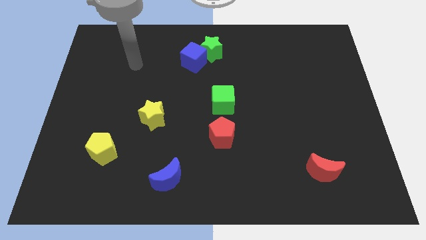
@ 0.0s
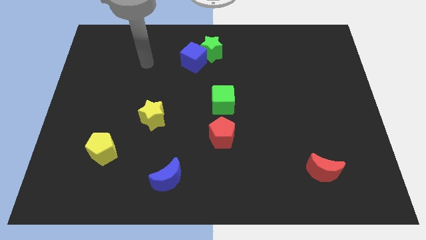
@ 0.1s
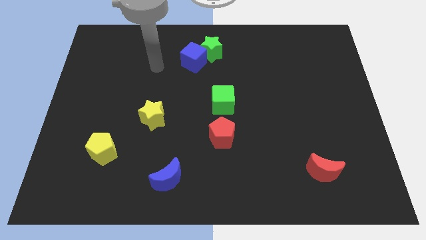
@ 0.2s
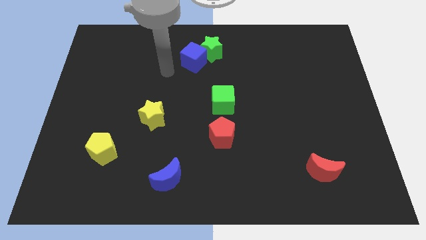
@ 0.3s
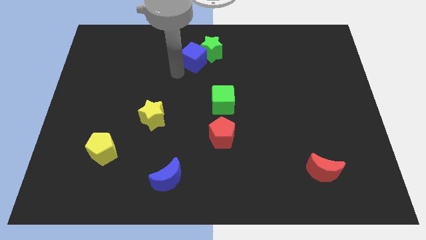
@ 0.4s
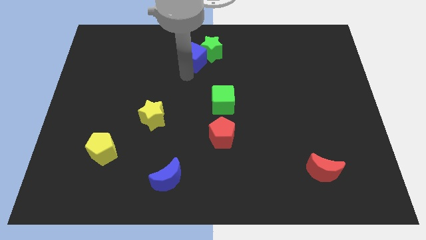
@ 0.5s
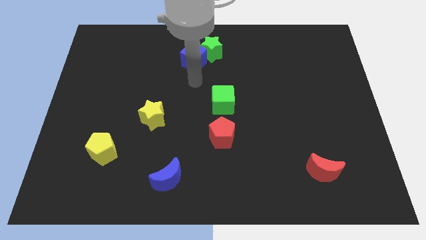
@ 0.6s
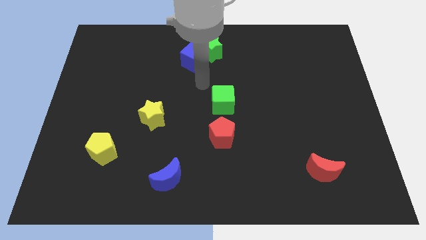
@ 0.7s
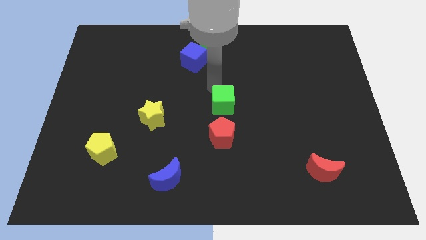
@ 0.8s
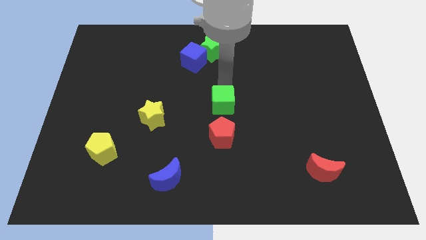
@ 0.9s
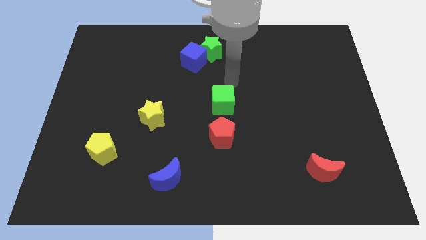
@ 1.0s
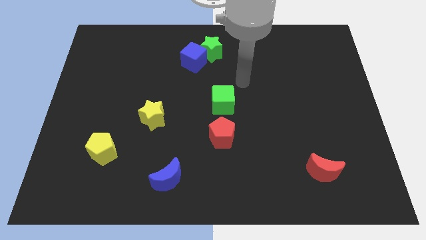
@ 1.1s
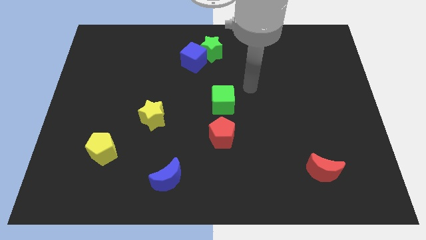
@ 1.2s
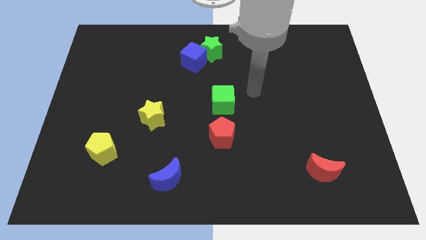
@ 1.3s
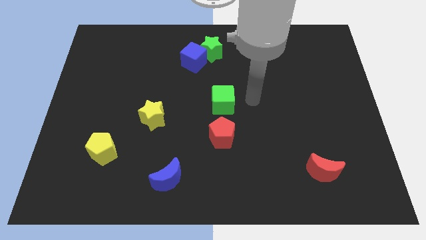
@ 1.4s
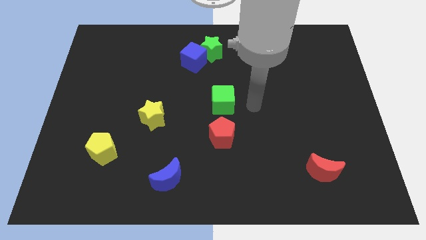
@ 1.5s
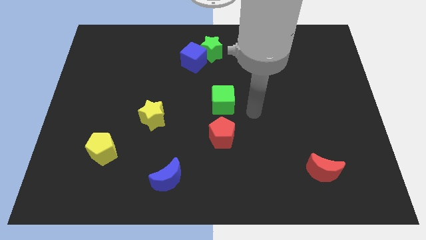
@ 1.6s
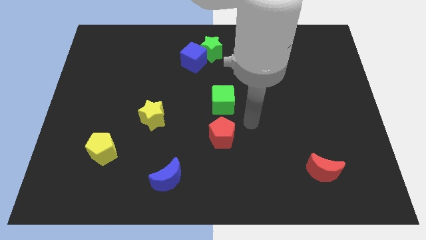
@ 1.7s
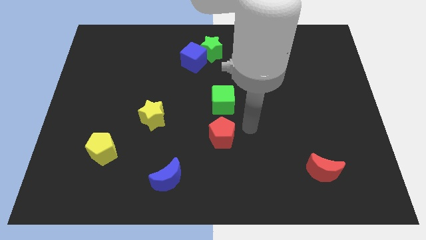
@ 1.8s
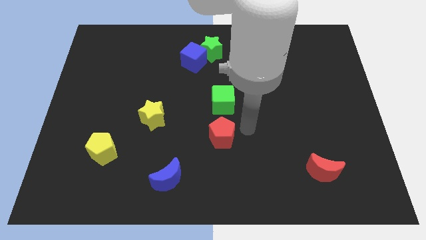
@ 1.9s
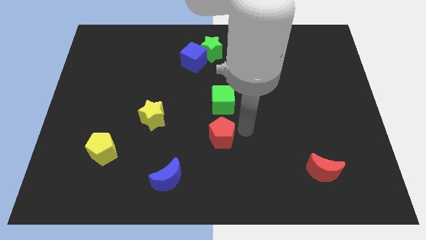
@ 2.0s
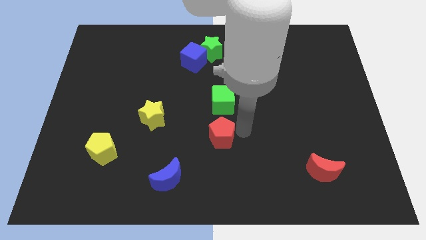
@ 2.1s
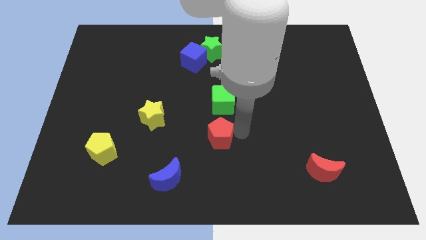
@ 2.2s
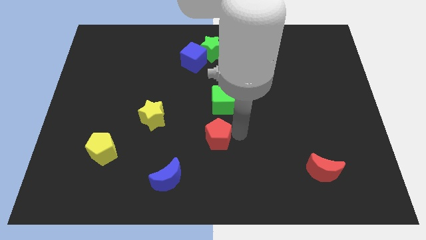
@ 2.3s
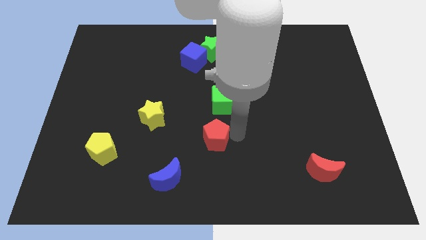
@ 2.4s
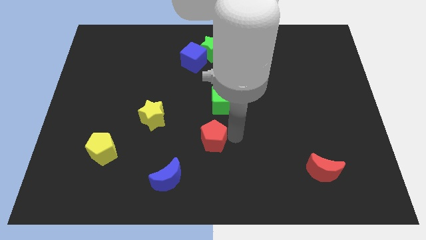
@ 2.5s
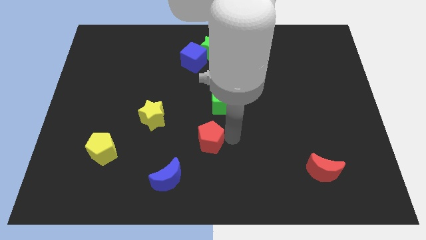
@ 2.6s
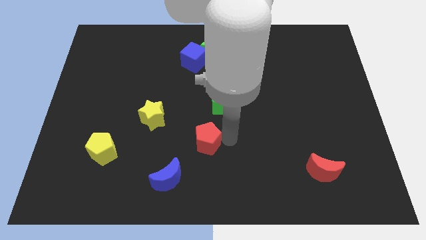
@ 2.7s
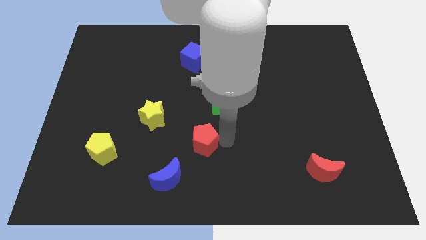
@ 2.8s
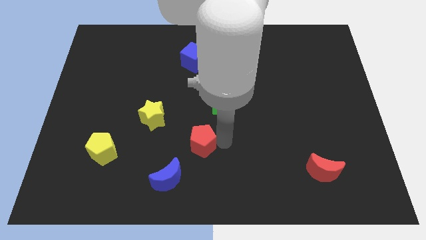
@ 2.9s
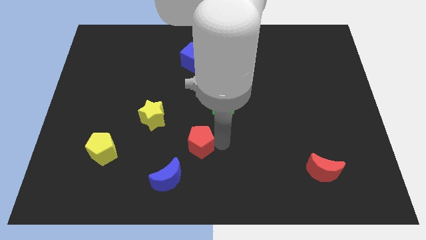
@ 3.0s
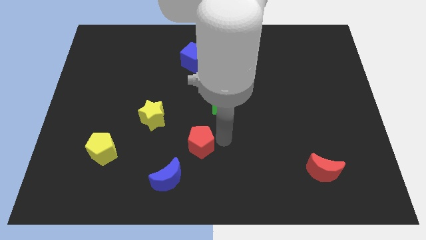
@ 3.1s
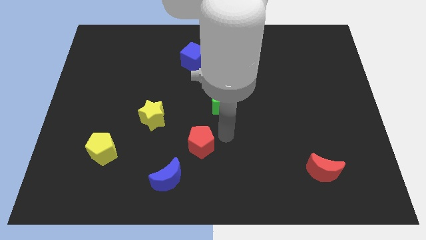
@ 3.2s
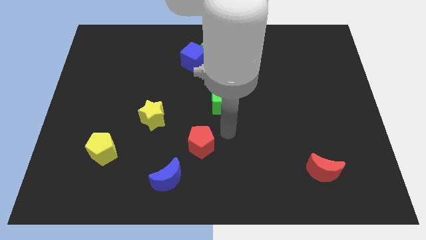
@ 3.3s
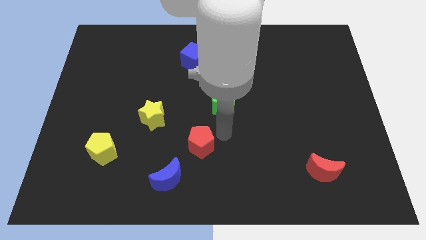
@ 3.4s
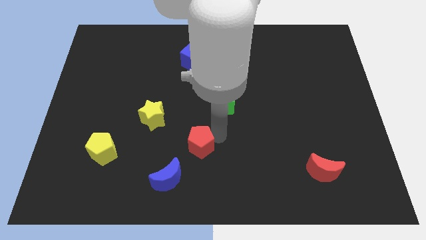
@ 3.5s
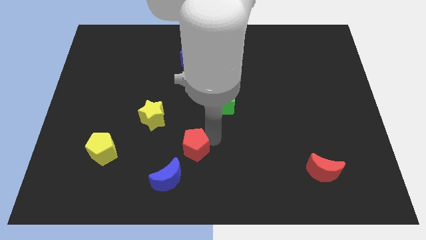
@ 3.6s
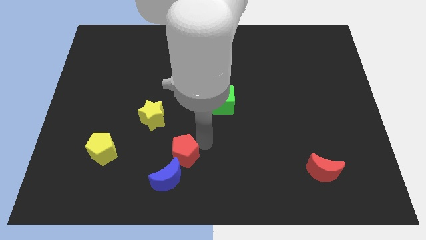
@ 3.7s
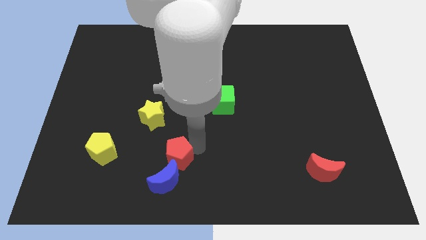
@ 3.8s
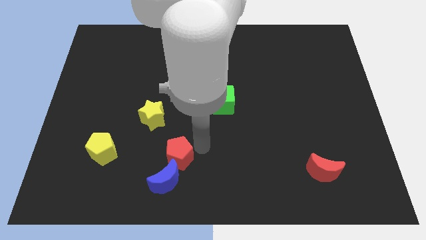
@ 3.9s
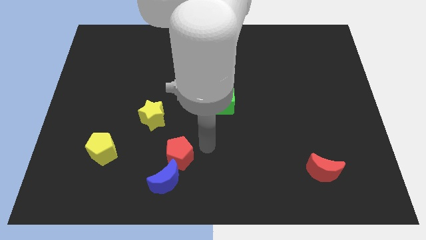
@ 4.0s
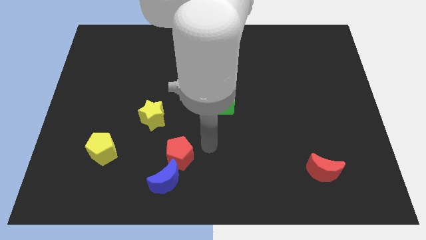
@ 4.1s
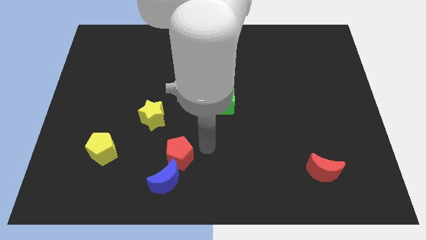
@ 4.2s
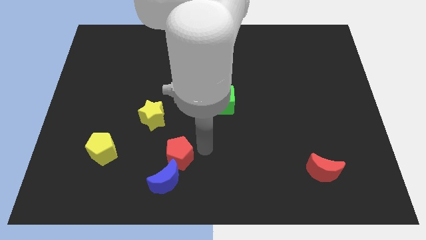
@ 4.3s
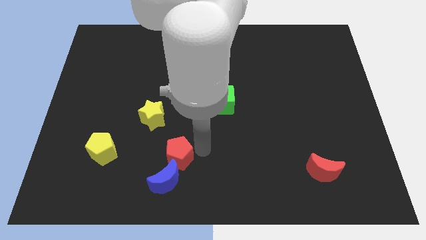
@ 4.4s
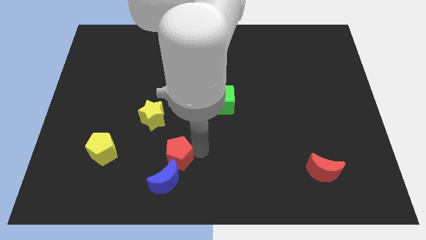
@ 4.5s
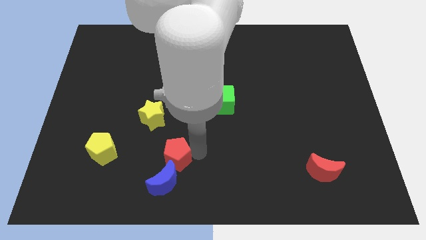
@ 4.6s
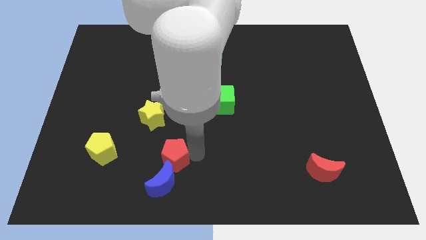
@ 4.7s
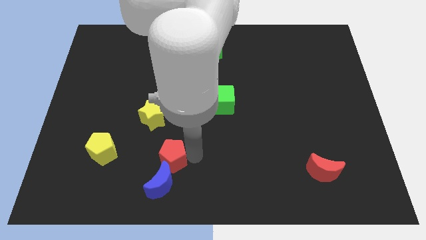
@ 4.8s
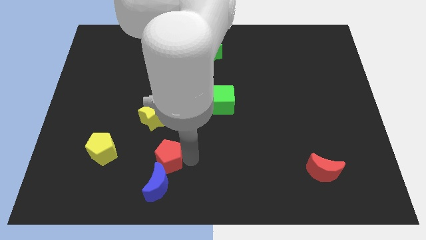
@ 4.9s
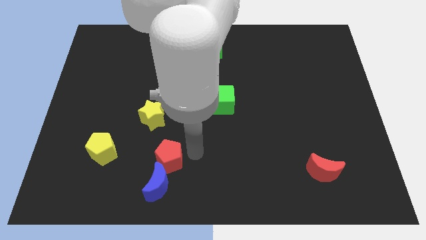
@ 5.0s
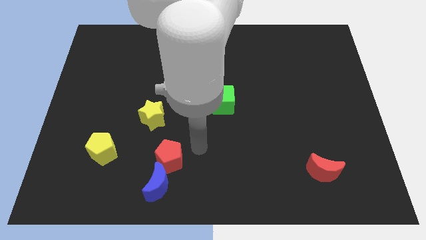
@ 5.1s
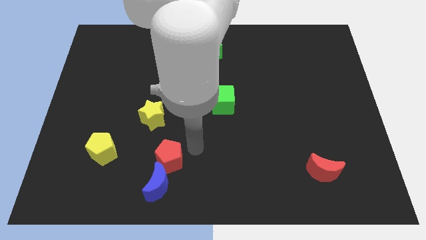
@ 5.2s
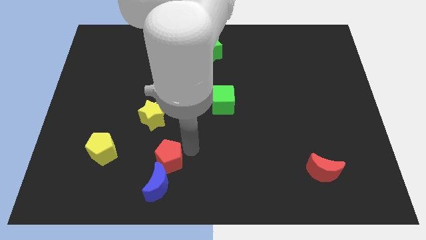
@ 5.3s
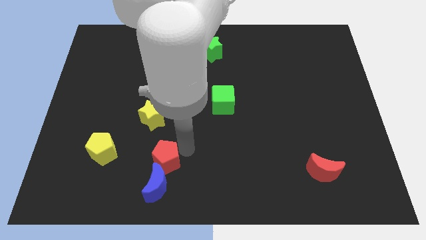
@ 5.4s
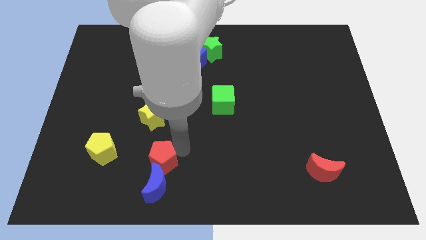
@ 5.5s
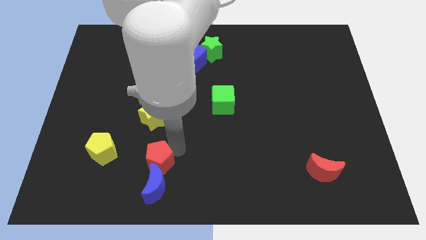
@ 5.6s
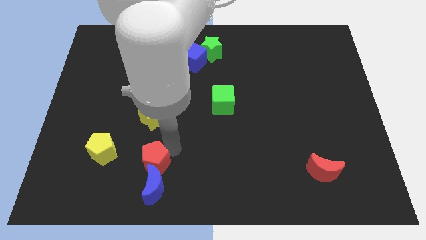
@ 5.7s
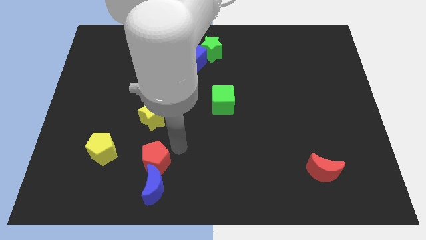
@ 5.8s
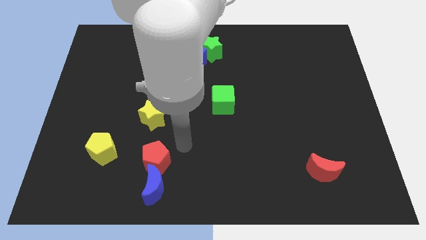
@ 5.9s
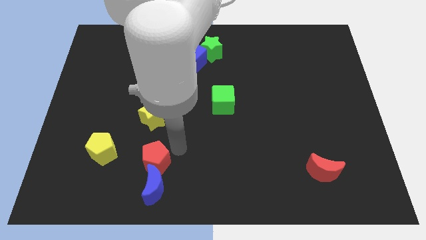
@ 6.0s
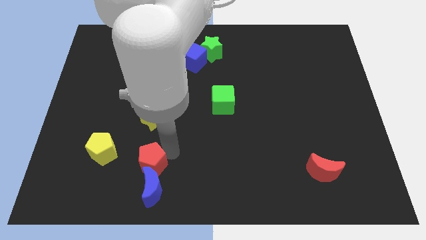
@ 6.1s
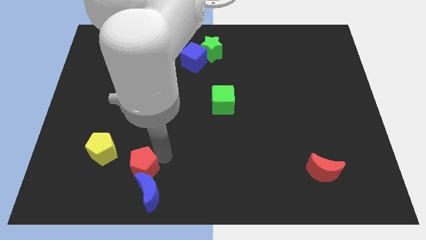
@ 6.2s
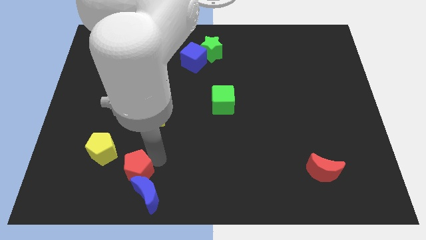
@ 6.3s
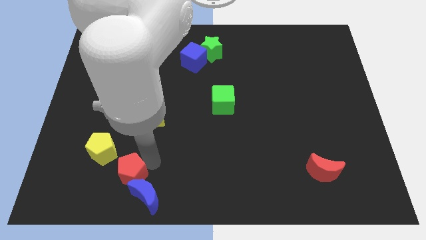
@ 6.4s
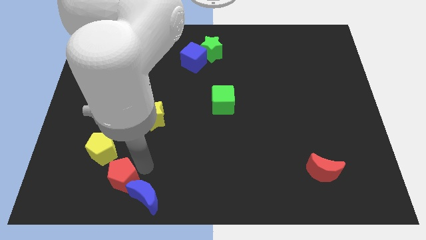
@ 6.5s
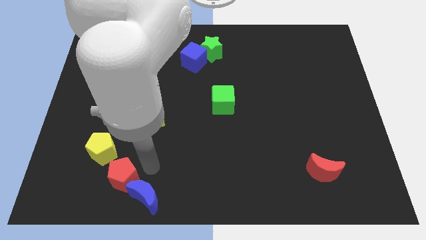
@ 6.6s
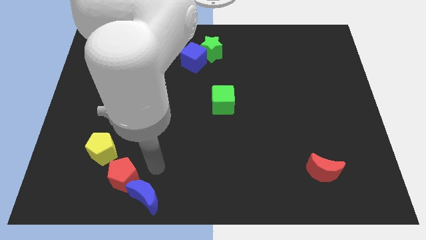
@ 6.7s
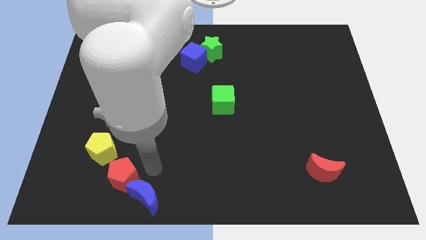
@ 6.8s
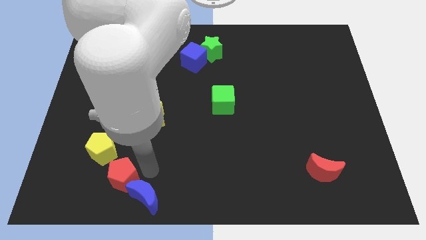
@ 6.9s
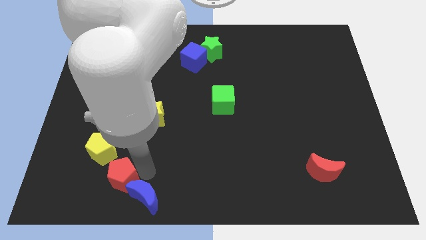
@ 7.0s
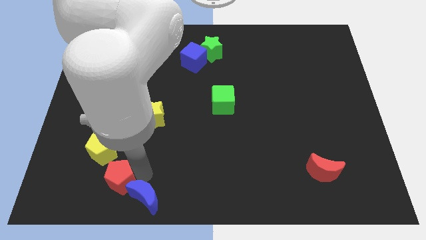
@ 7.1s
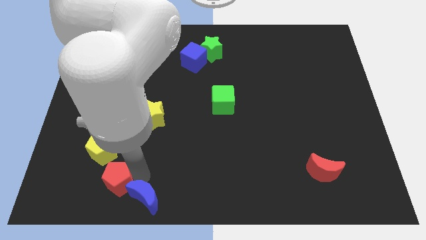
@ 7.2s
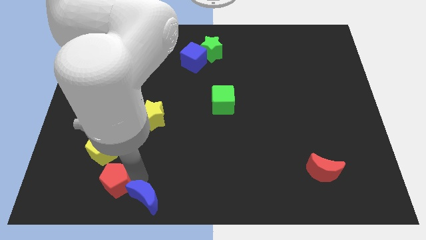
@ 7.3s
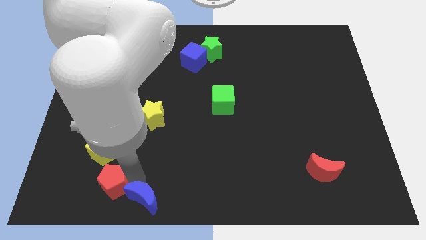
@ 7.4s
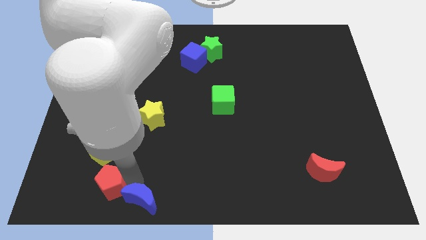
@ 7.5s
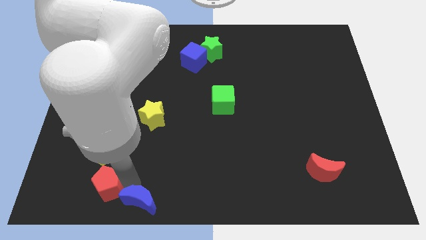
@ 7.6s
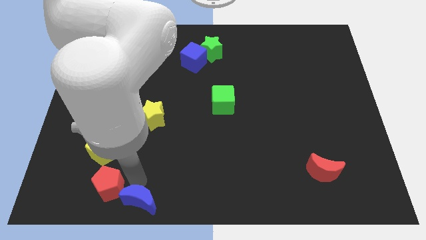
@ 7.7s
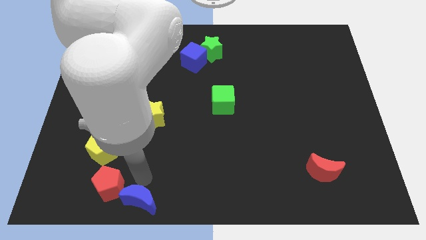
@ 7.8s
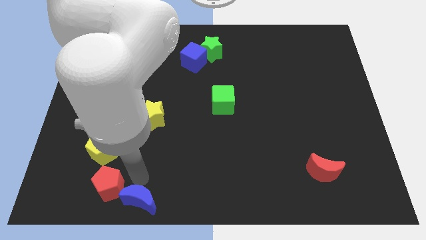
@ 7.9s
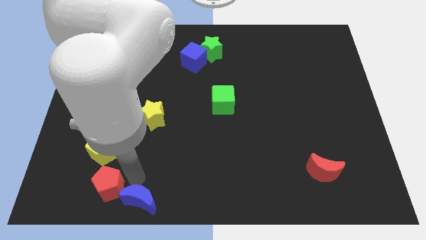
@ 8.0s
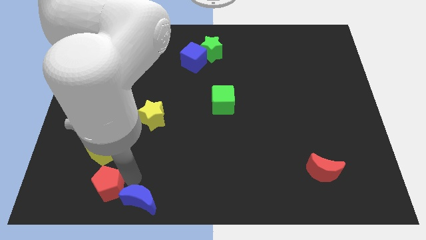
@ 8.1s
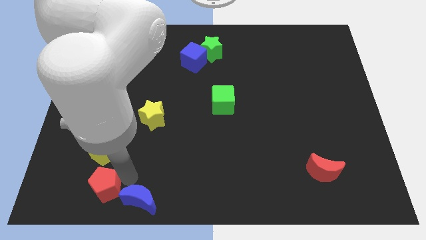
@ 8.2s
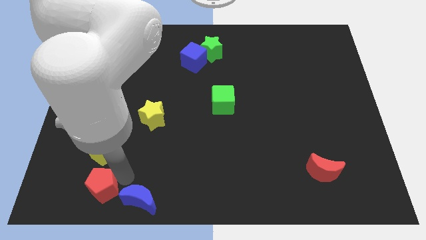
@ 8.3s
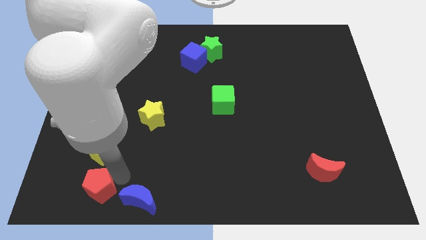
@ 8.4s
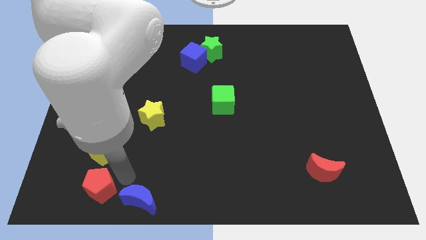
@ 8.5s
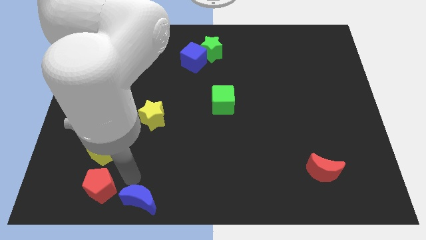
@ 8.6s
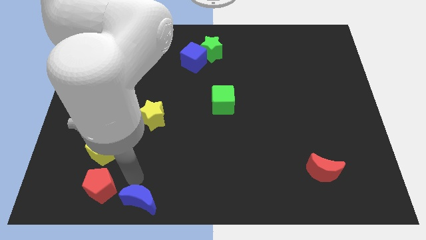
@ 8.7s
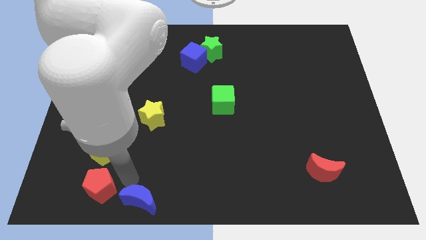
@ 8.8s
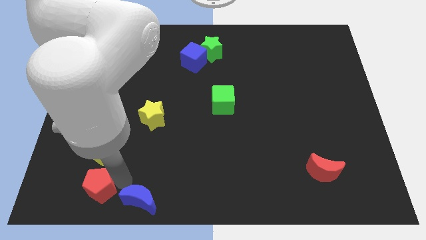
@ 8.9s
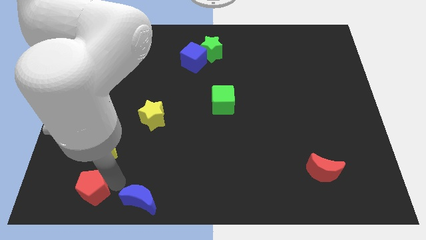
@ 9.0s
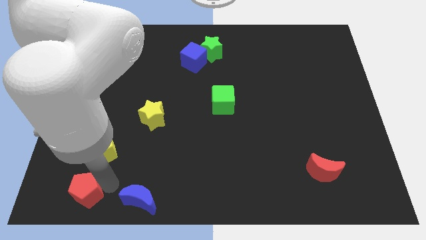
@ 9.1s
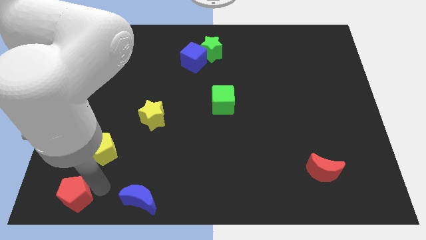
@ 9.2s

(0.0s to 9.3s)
put the red pentagon to the lower left corner
